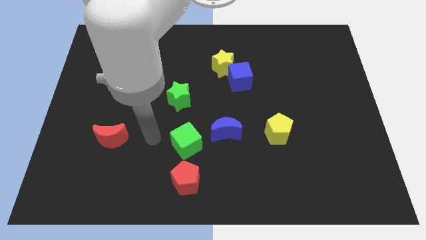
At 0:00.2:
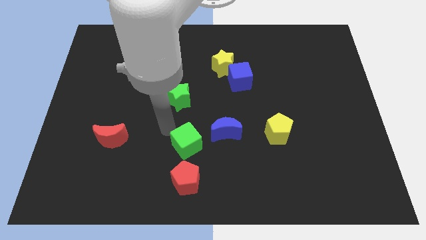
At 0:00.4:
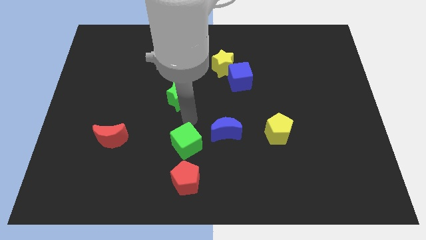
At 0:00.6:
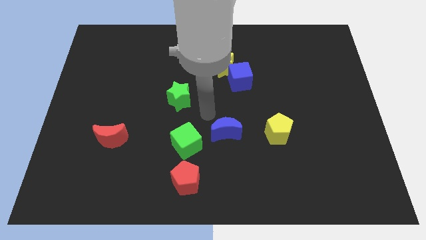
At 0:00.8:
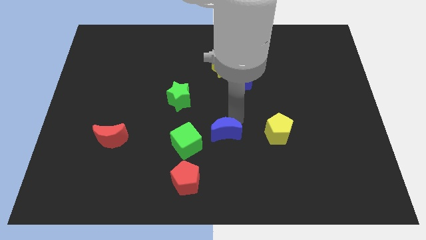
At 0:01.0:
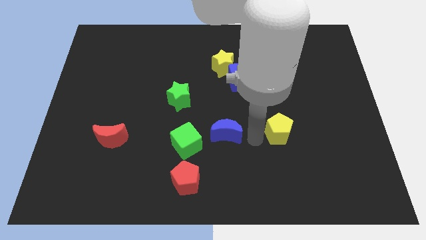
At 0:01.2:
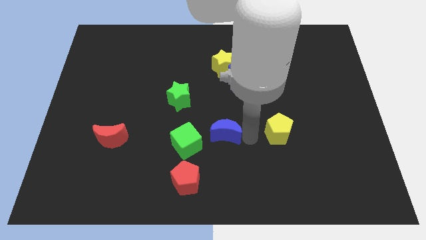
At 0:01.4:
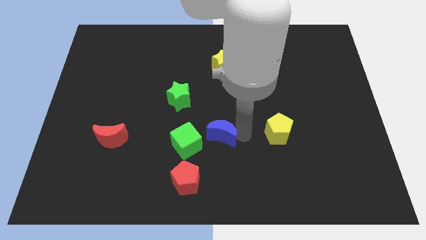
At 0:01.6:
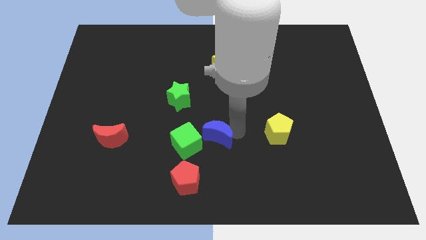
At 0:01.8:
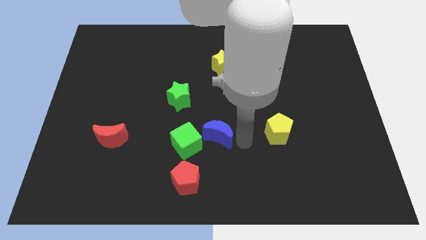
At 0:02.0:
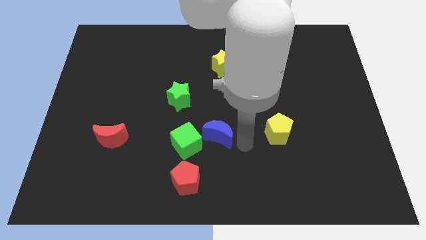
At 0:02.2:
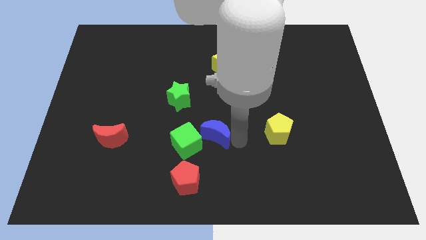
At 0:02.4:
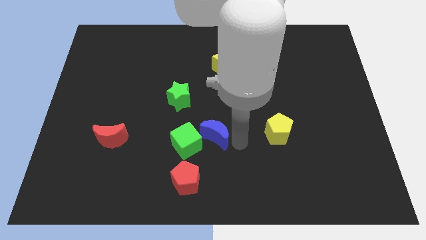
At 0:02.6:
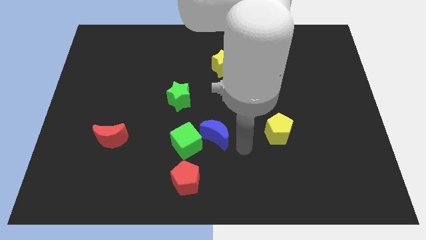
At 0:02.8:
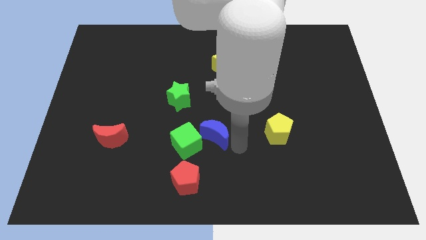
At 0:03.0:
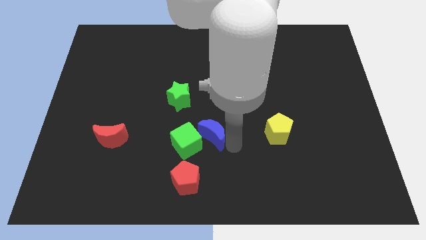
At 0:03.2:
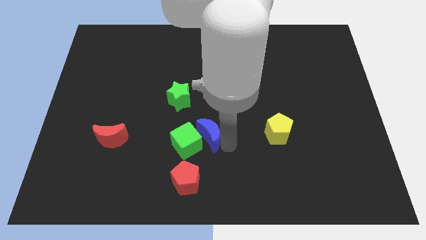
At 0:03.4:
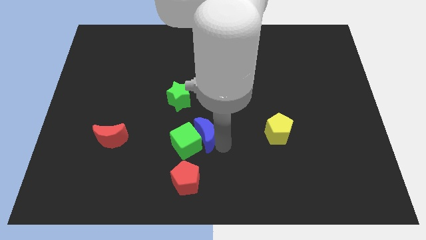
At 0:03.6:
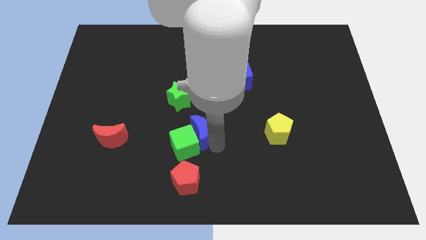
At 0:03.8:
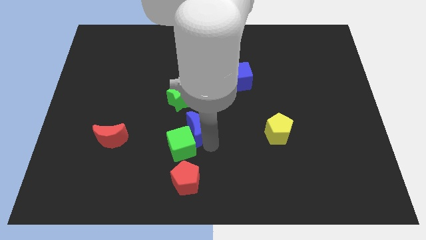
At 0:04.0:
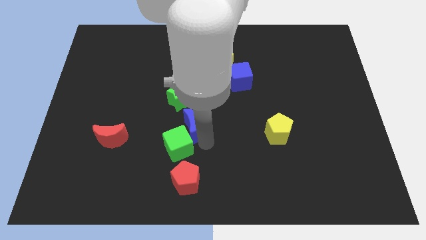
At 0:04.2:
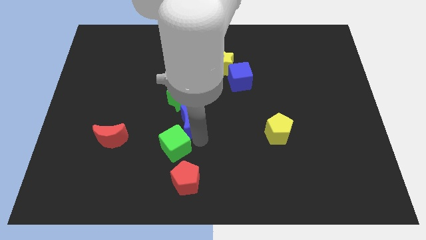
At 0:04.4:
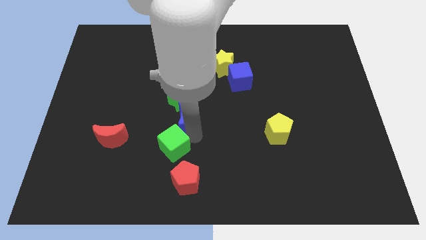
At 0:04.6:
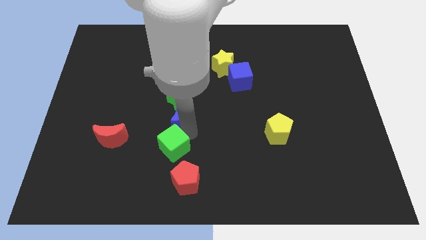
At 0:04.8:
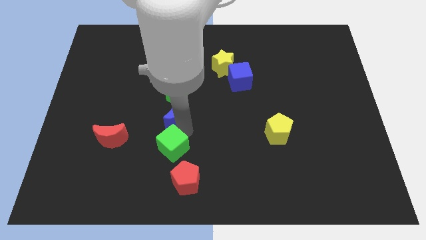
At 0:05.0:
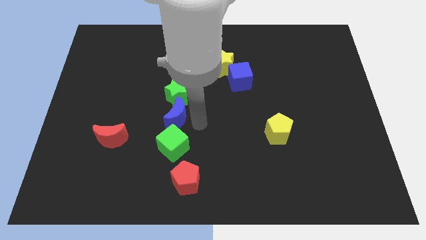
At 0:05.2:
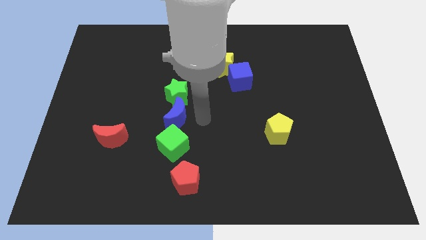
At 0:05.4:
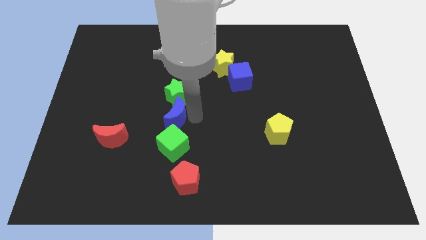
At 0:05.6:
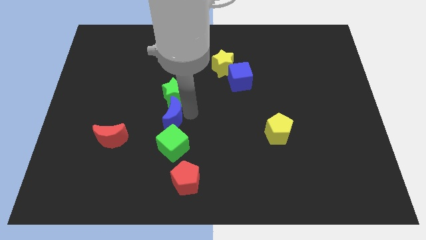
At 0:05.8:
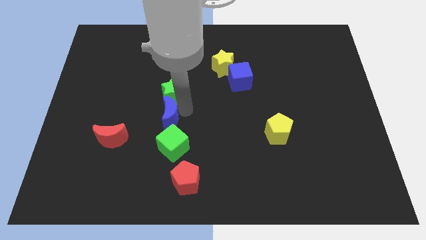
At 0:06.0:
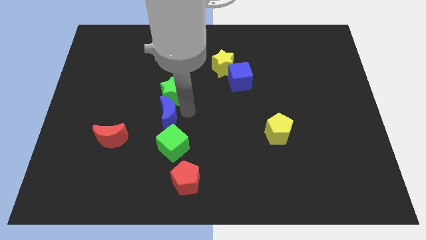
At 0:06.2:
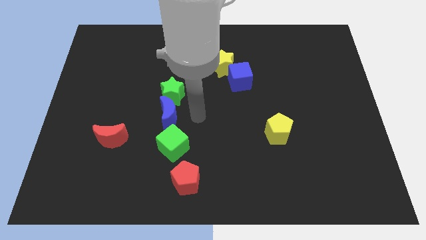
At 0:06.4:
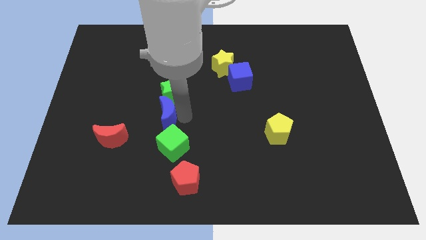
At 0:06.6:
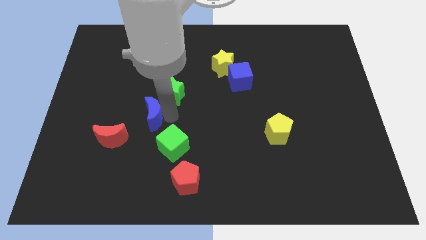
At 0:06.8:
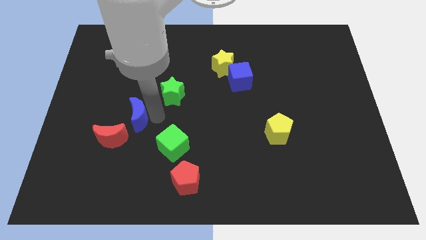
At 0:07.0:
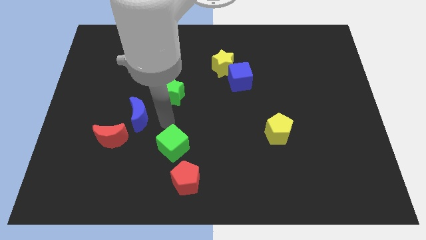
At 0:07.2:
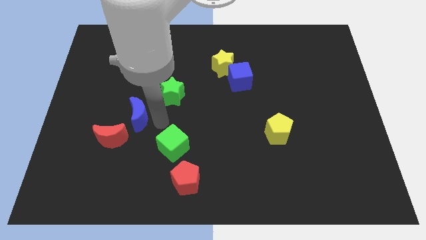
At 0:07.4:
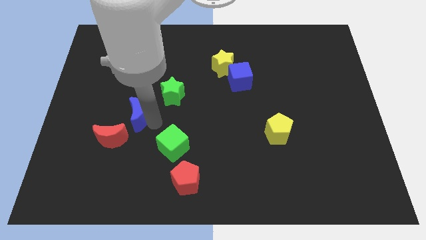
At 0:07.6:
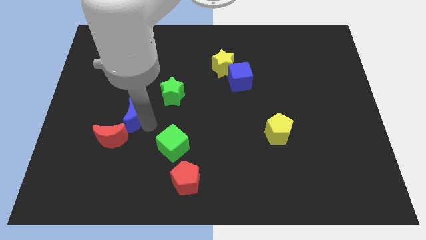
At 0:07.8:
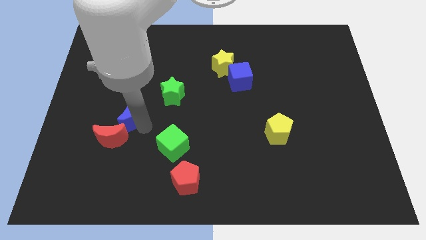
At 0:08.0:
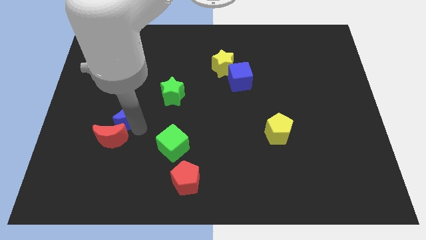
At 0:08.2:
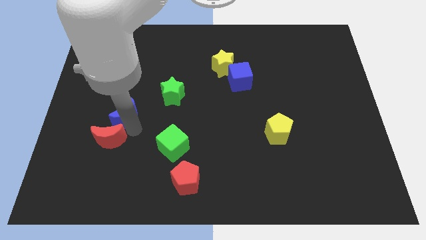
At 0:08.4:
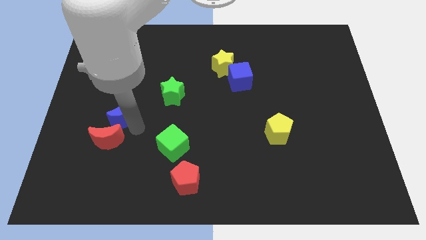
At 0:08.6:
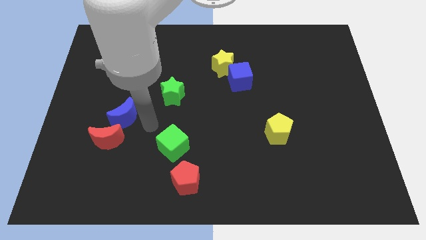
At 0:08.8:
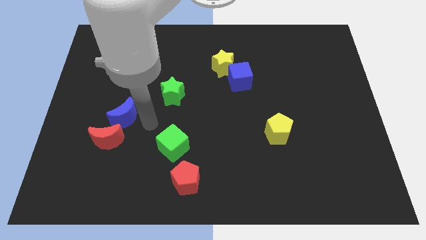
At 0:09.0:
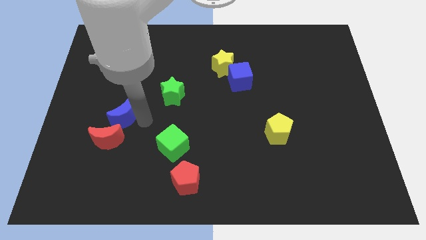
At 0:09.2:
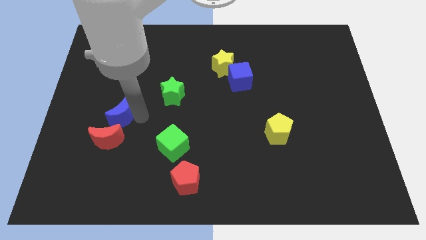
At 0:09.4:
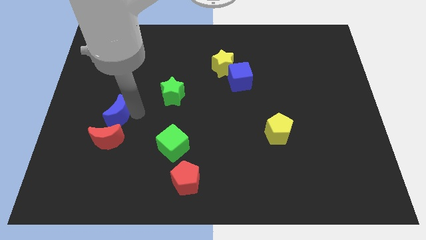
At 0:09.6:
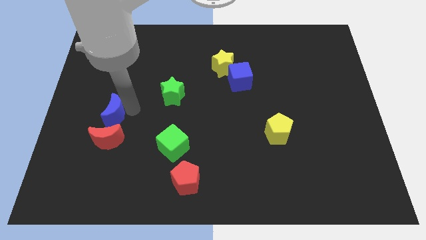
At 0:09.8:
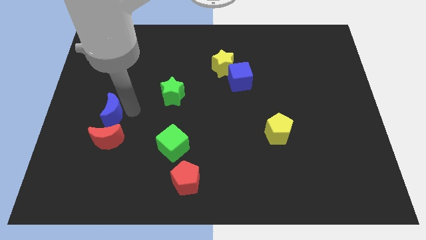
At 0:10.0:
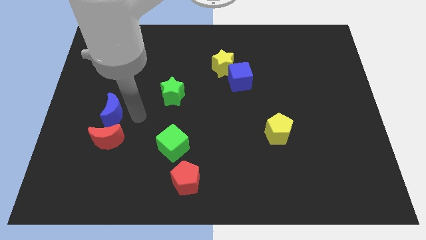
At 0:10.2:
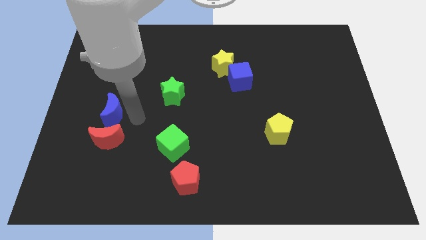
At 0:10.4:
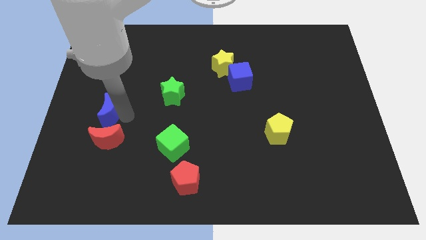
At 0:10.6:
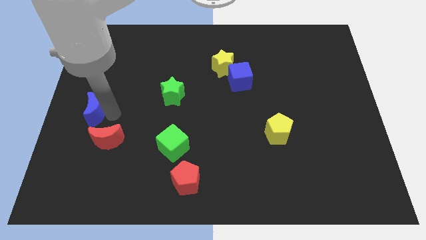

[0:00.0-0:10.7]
slide the blue moon to the left side

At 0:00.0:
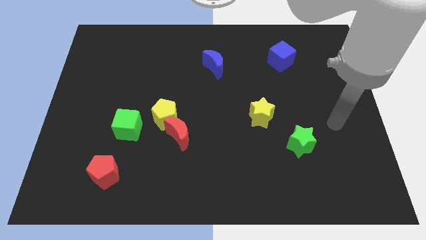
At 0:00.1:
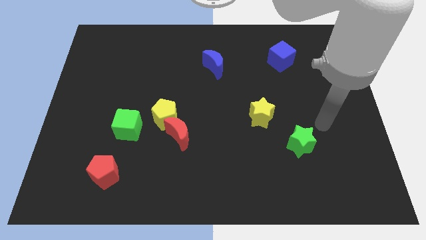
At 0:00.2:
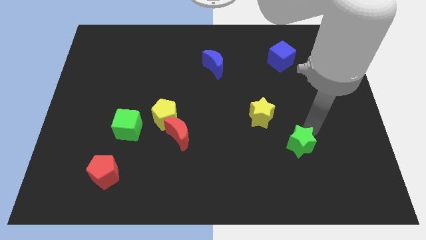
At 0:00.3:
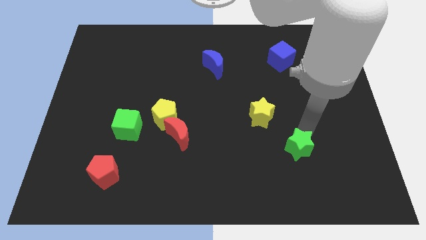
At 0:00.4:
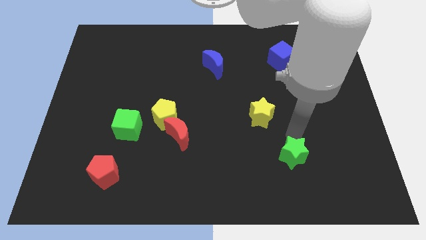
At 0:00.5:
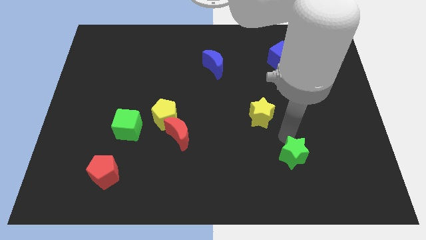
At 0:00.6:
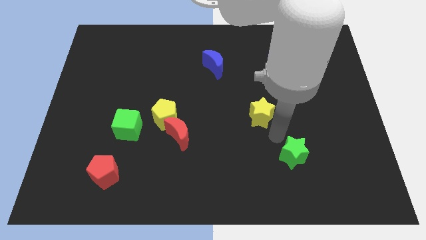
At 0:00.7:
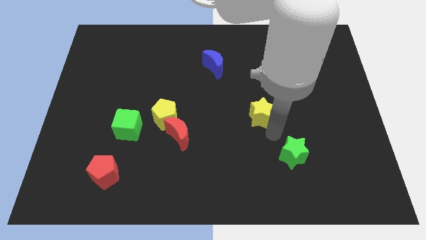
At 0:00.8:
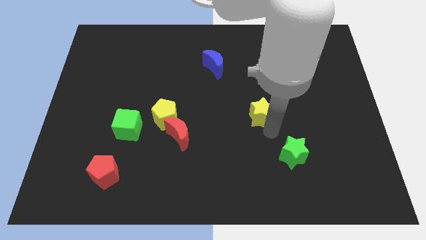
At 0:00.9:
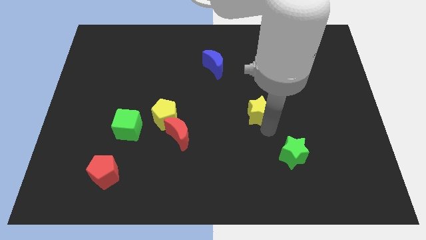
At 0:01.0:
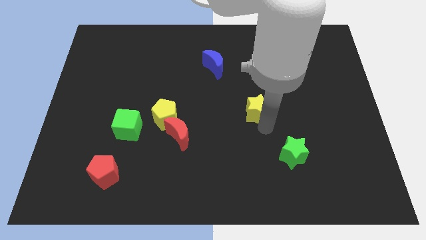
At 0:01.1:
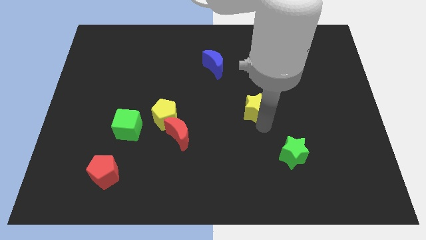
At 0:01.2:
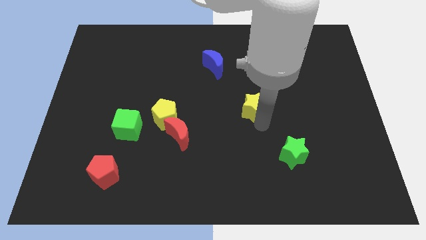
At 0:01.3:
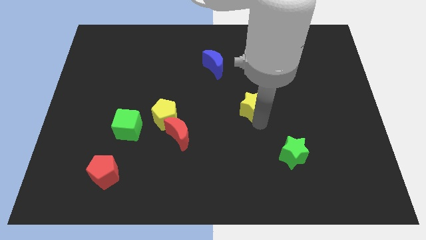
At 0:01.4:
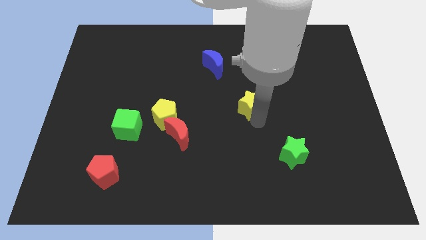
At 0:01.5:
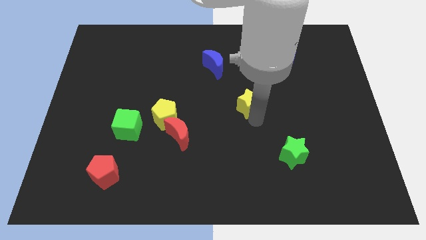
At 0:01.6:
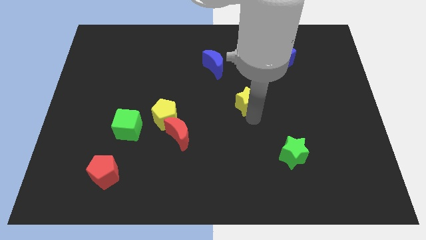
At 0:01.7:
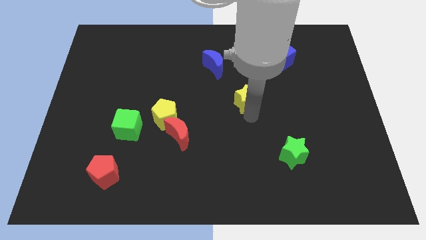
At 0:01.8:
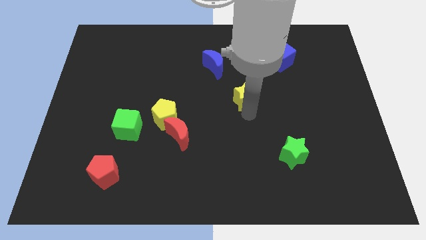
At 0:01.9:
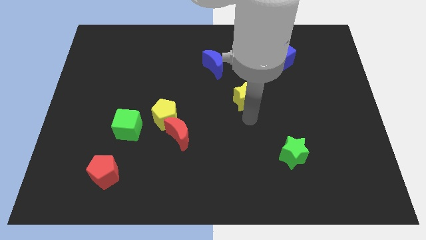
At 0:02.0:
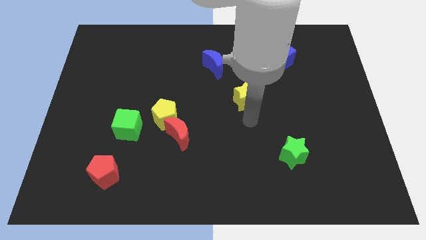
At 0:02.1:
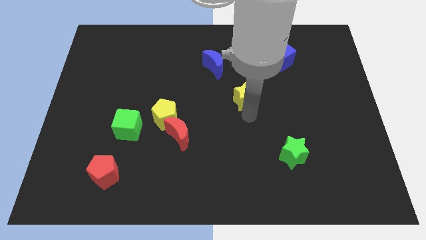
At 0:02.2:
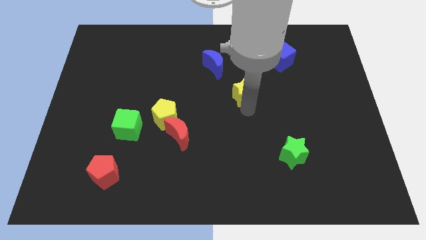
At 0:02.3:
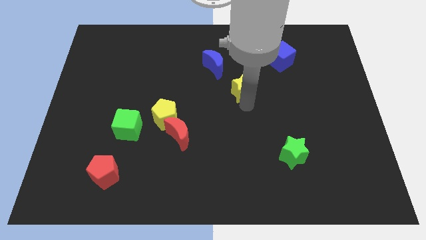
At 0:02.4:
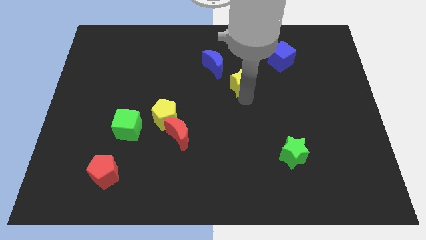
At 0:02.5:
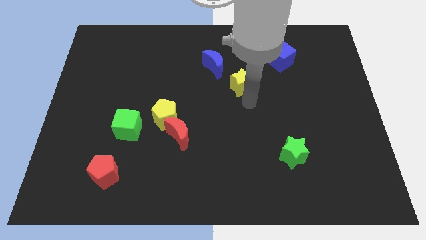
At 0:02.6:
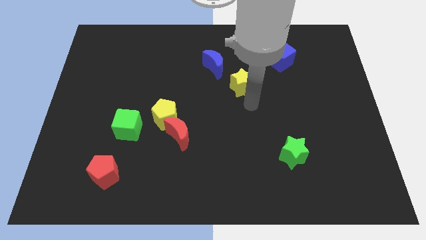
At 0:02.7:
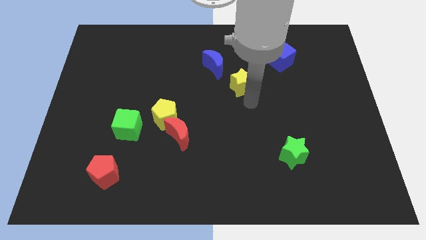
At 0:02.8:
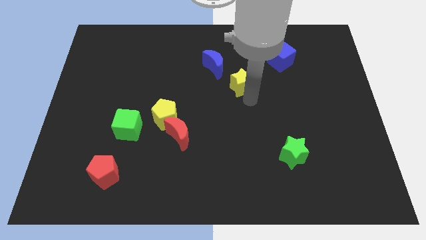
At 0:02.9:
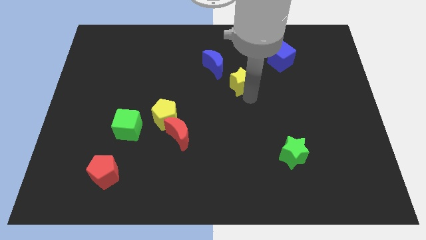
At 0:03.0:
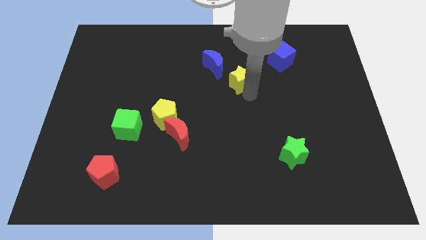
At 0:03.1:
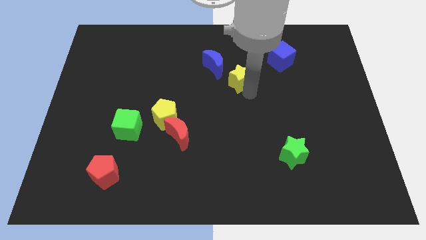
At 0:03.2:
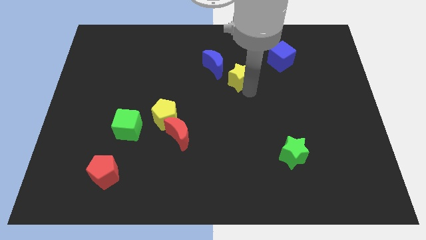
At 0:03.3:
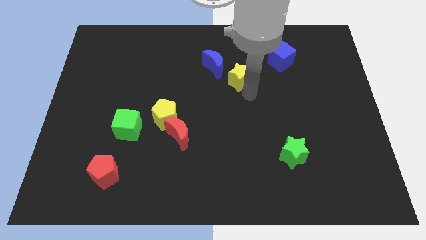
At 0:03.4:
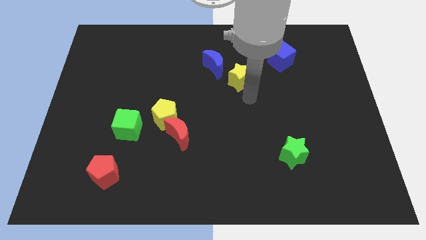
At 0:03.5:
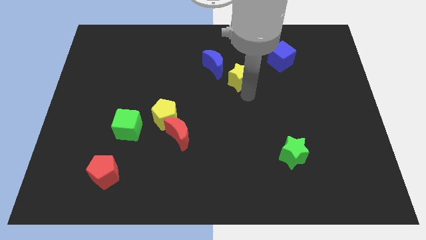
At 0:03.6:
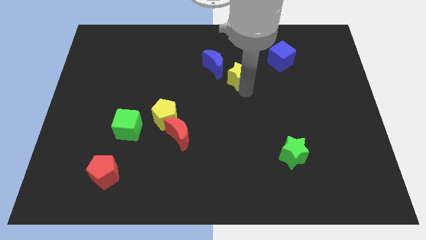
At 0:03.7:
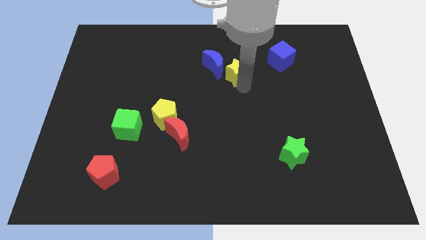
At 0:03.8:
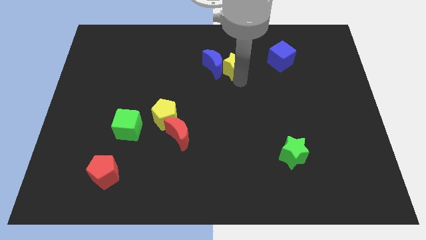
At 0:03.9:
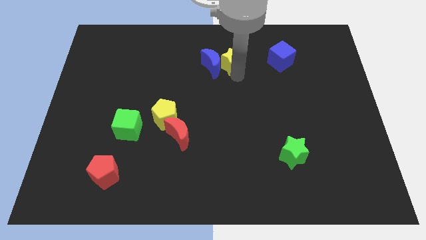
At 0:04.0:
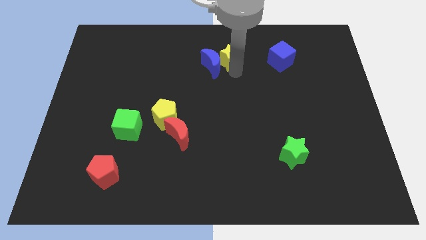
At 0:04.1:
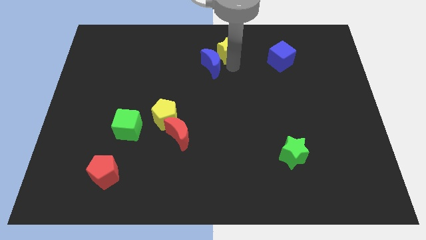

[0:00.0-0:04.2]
slide the yellow star to the top
